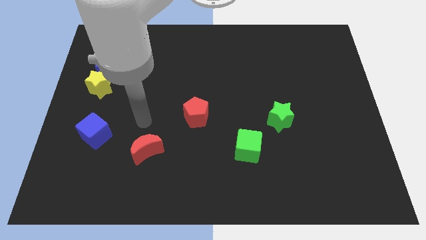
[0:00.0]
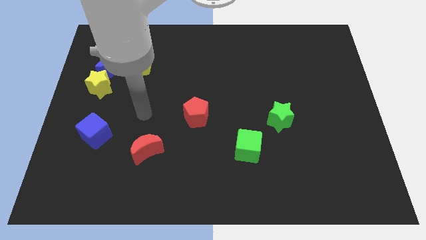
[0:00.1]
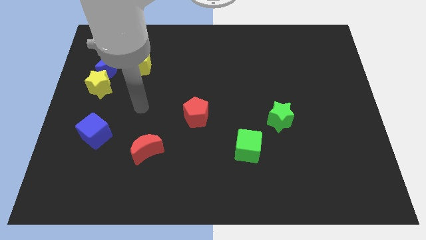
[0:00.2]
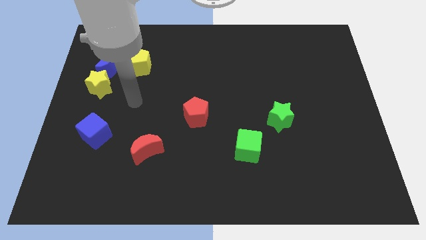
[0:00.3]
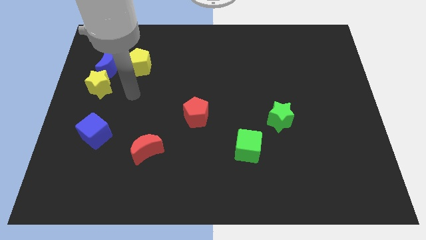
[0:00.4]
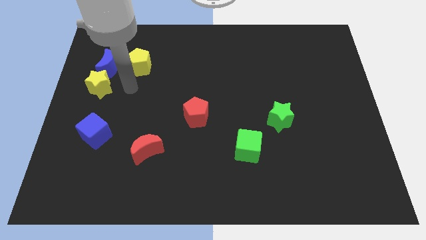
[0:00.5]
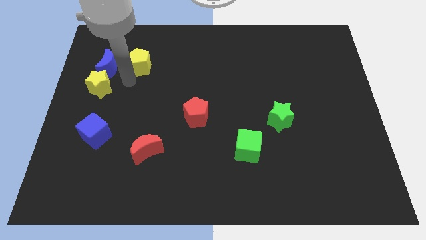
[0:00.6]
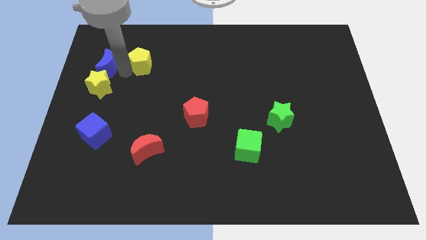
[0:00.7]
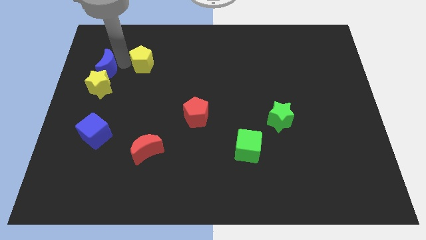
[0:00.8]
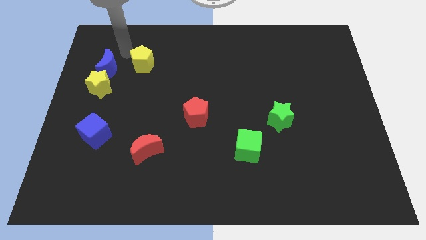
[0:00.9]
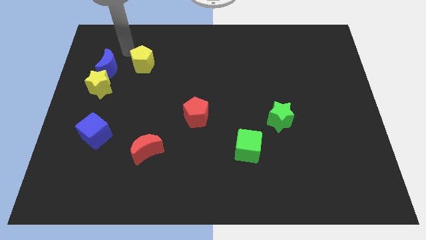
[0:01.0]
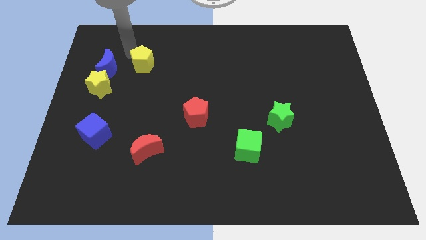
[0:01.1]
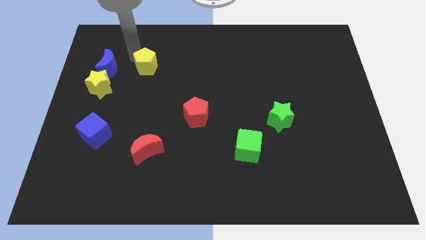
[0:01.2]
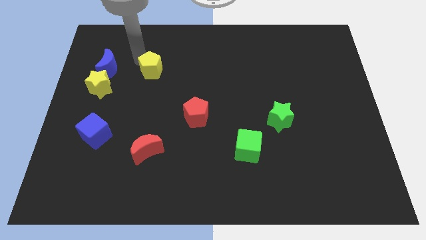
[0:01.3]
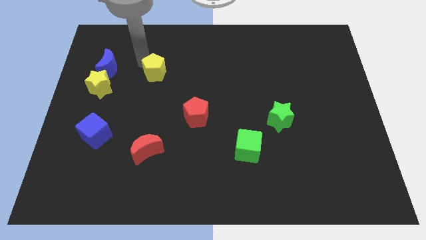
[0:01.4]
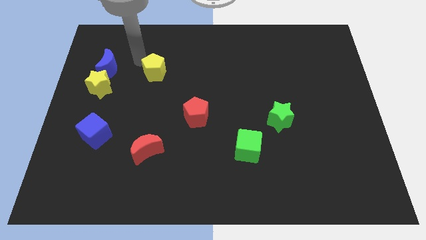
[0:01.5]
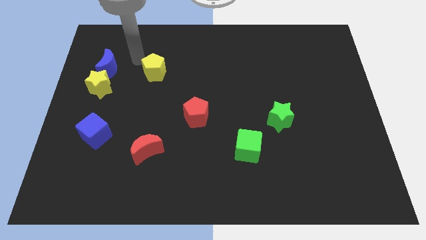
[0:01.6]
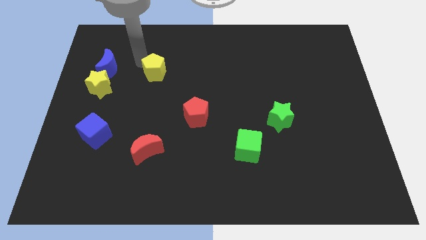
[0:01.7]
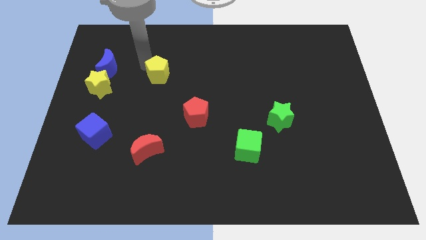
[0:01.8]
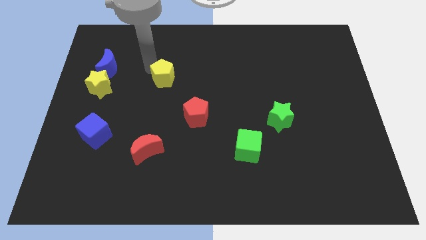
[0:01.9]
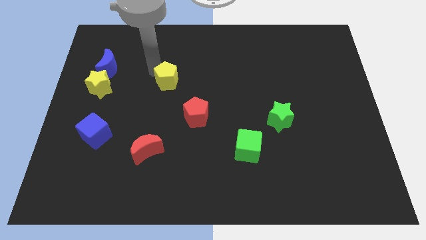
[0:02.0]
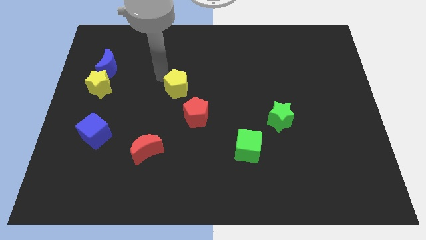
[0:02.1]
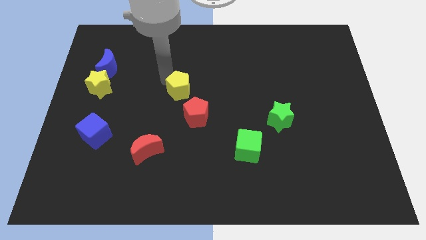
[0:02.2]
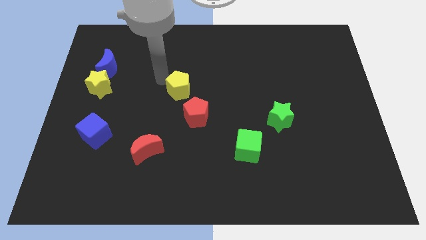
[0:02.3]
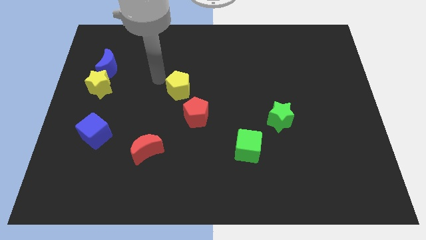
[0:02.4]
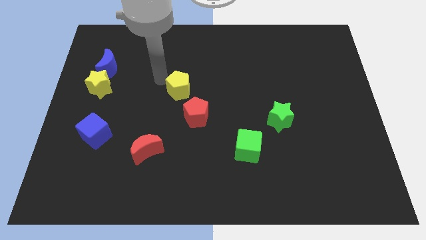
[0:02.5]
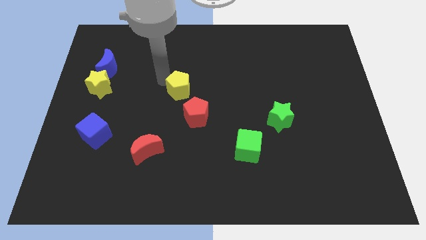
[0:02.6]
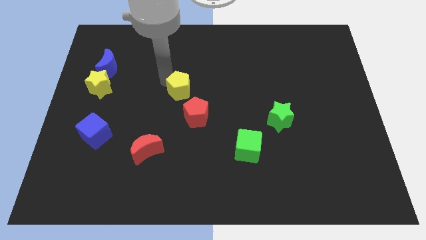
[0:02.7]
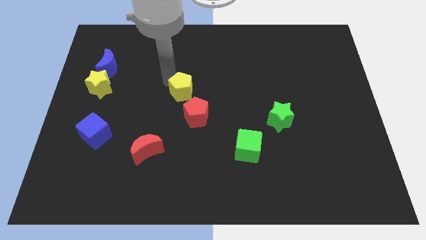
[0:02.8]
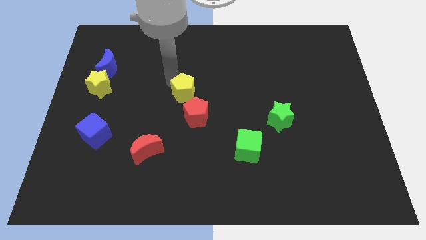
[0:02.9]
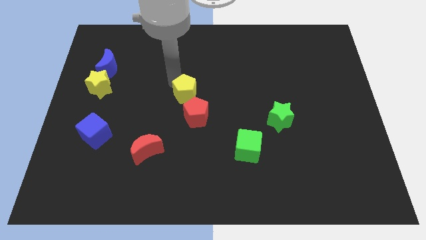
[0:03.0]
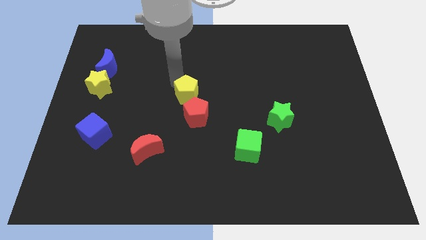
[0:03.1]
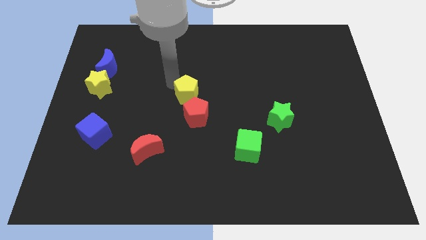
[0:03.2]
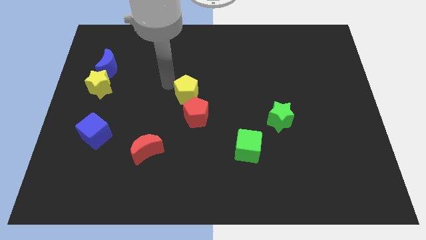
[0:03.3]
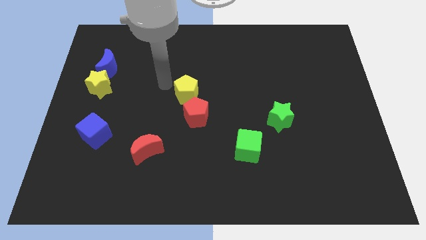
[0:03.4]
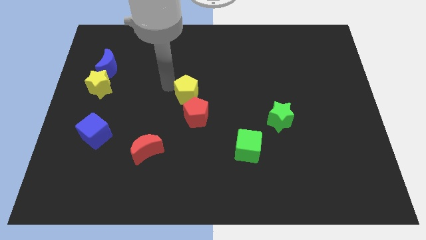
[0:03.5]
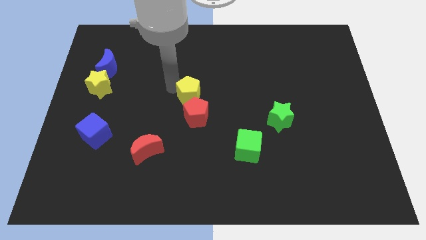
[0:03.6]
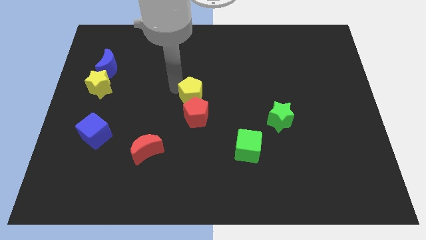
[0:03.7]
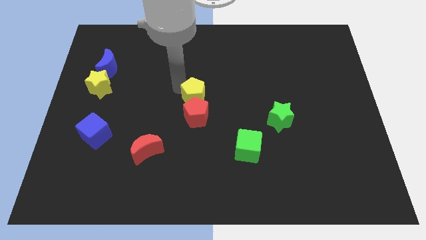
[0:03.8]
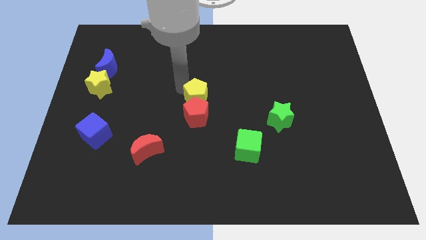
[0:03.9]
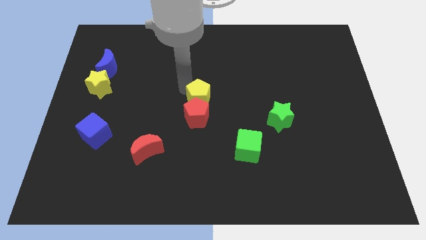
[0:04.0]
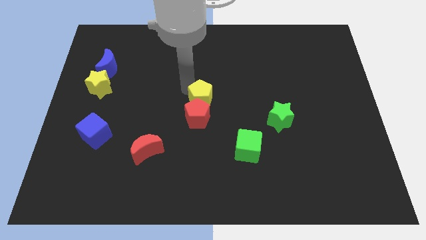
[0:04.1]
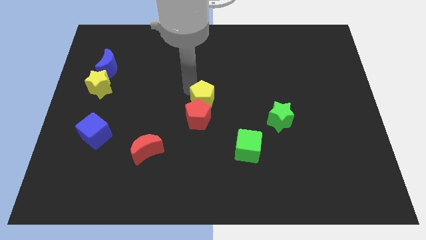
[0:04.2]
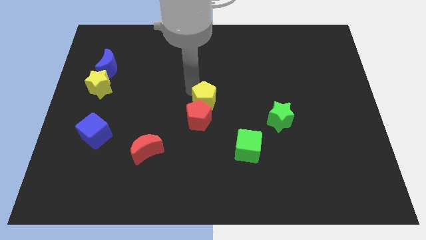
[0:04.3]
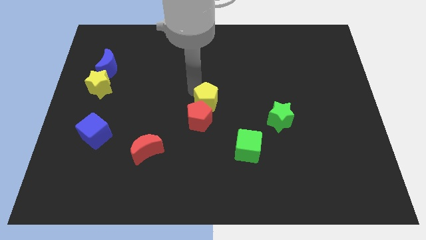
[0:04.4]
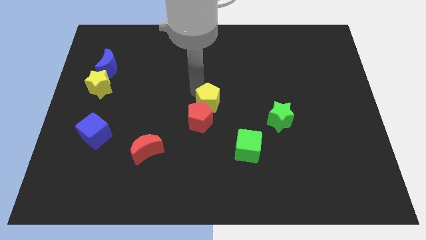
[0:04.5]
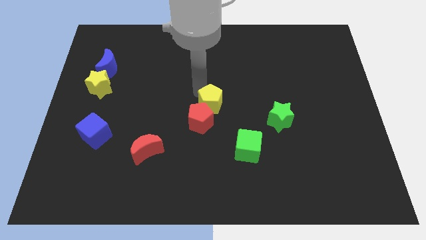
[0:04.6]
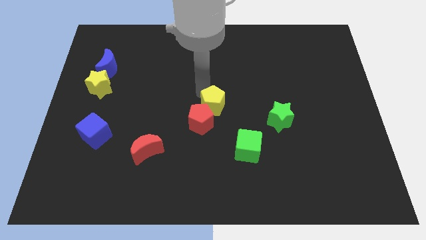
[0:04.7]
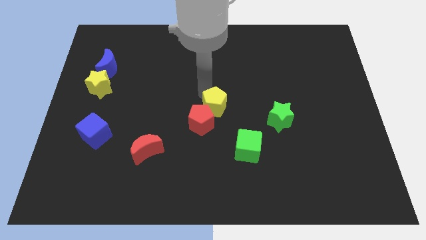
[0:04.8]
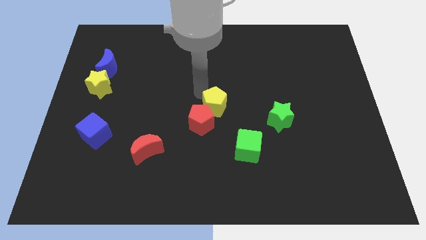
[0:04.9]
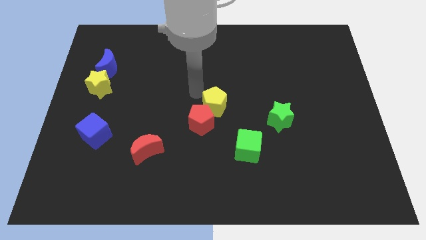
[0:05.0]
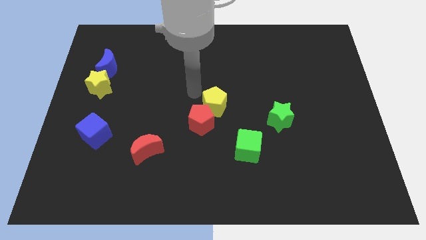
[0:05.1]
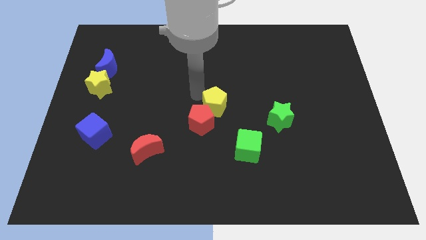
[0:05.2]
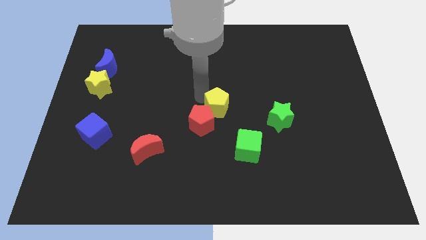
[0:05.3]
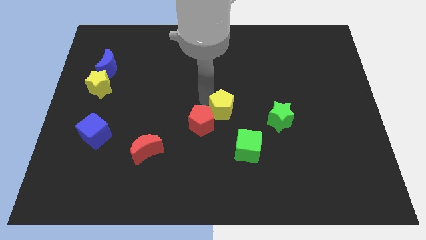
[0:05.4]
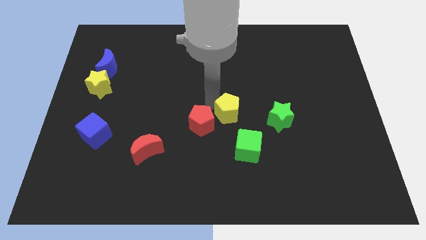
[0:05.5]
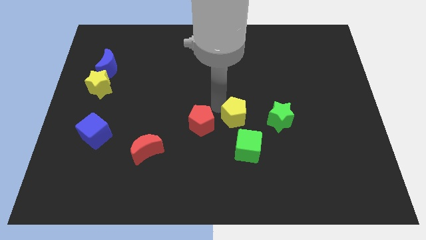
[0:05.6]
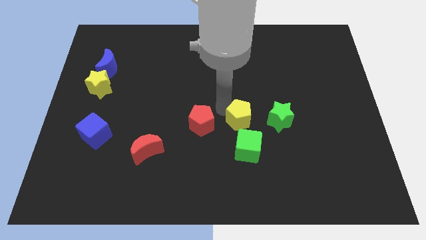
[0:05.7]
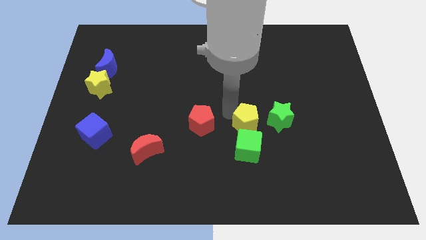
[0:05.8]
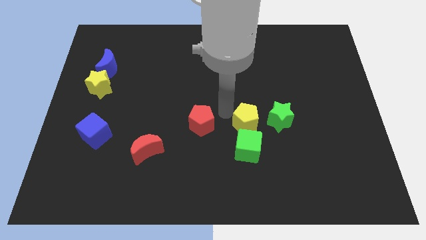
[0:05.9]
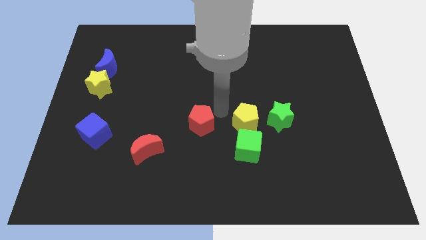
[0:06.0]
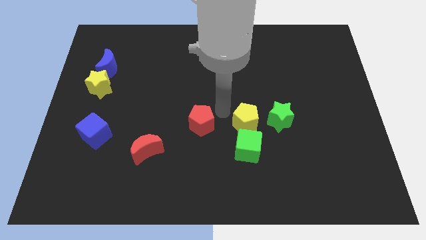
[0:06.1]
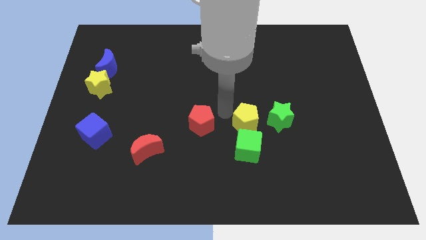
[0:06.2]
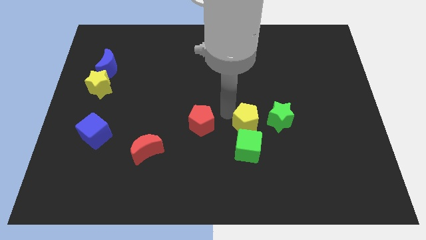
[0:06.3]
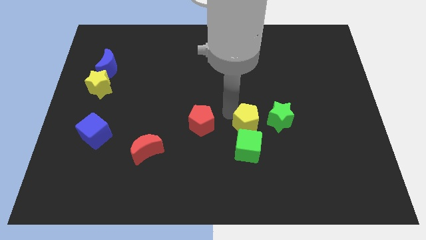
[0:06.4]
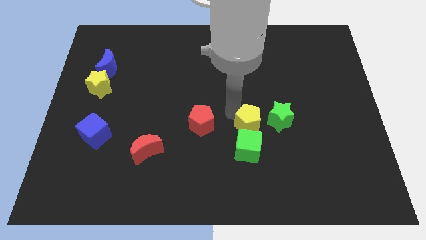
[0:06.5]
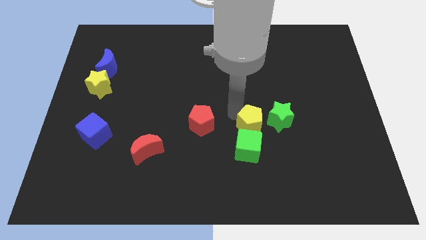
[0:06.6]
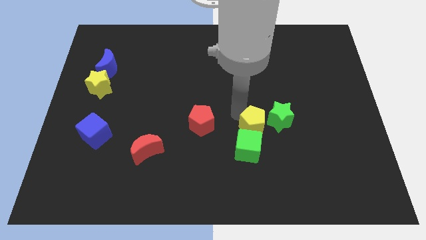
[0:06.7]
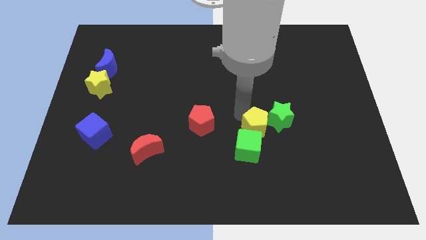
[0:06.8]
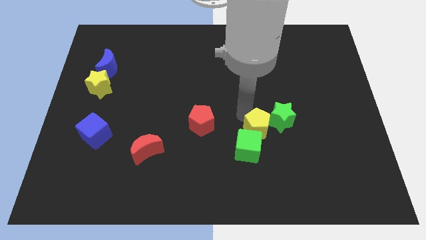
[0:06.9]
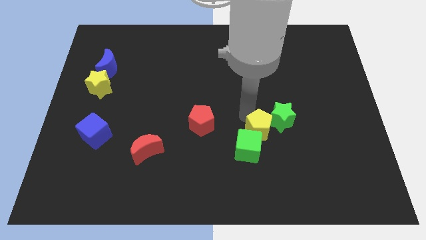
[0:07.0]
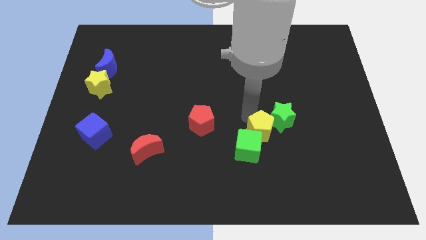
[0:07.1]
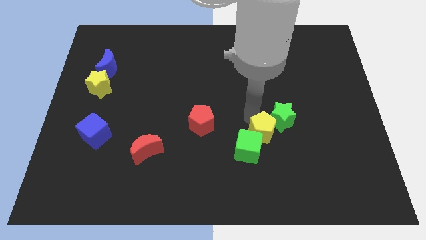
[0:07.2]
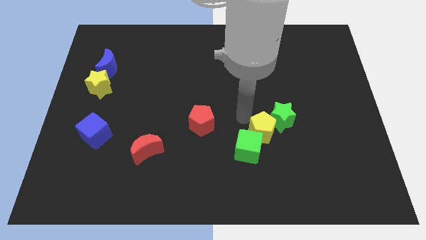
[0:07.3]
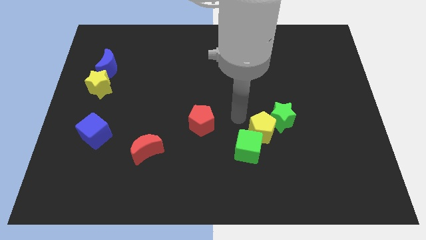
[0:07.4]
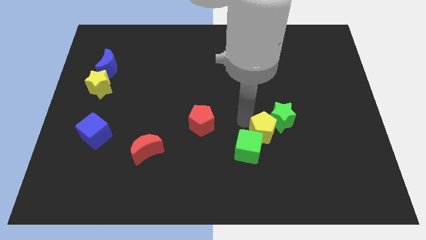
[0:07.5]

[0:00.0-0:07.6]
slide the yellow pentagon right of the green cube
